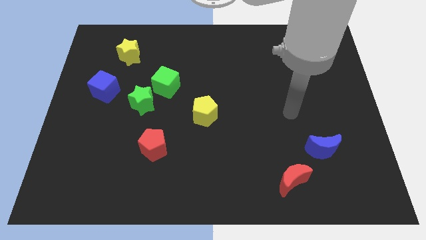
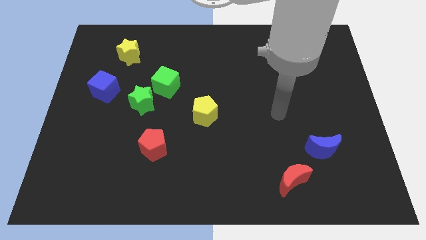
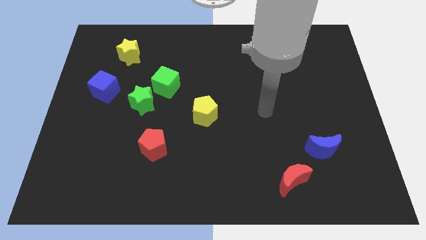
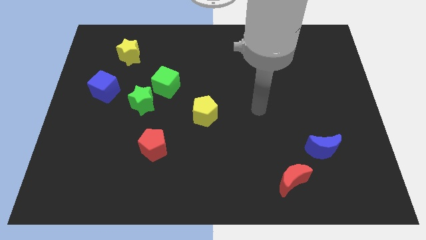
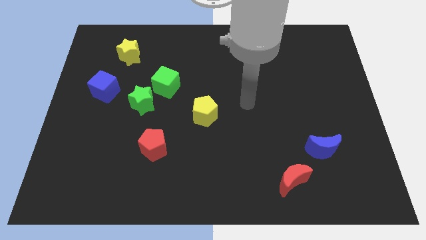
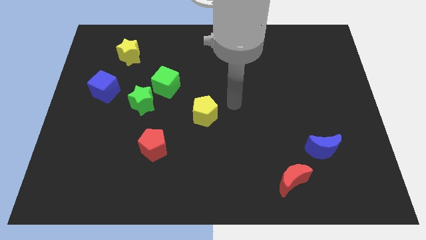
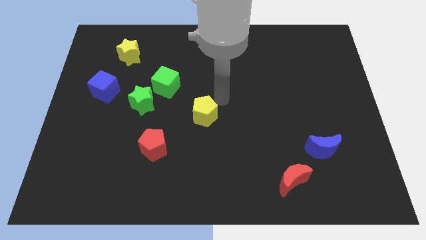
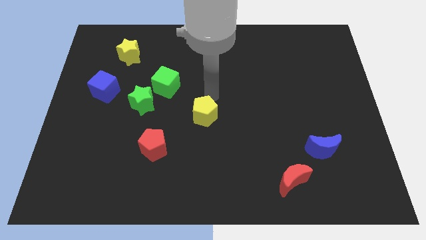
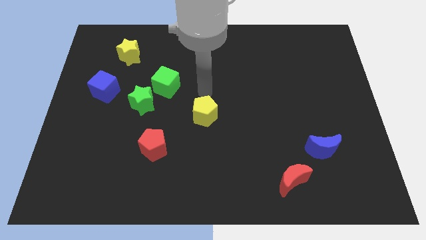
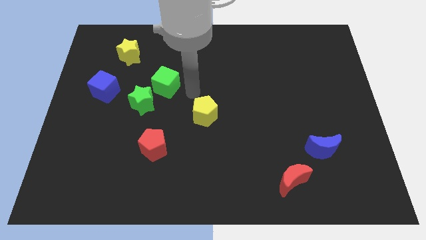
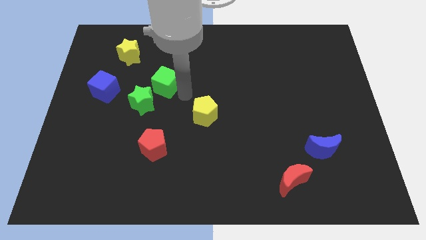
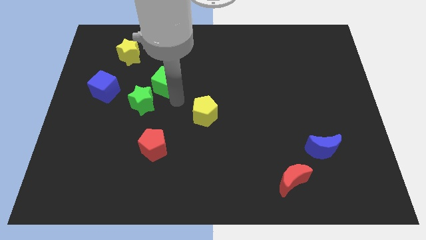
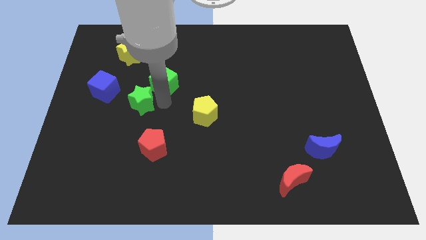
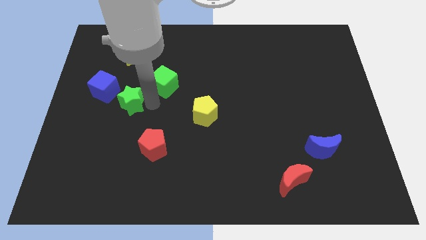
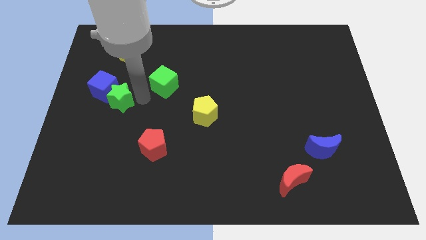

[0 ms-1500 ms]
separate the green cube from the green star

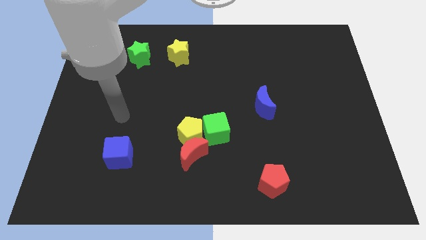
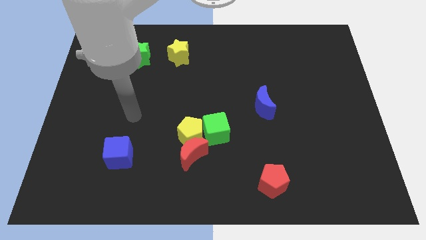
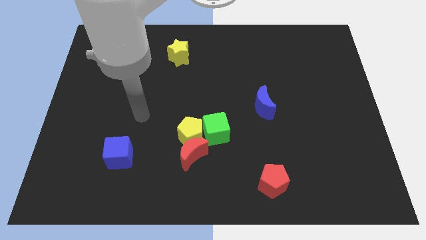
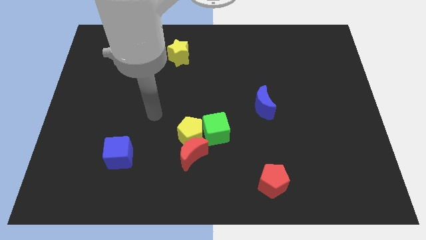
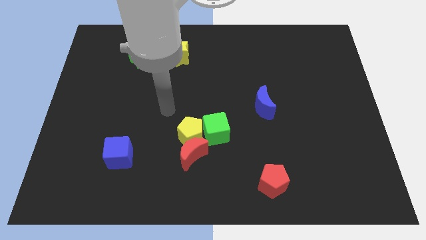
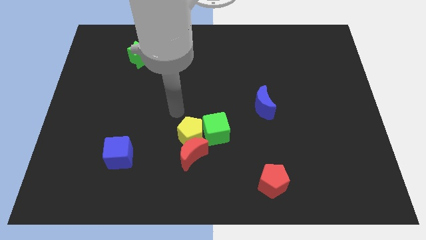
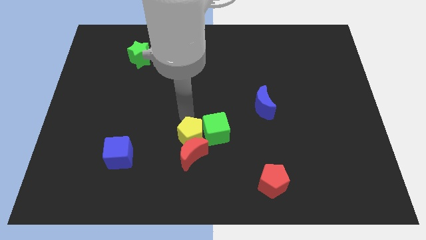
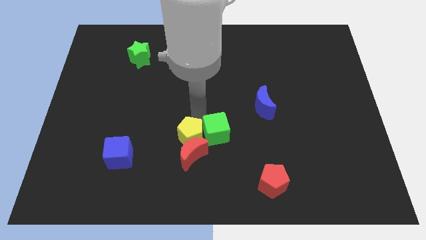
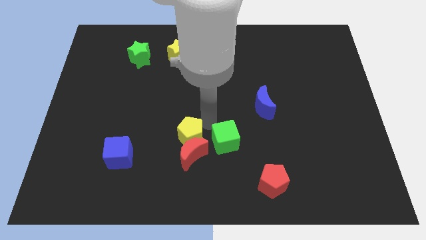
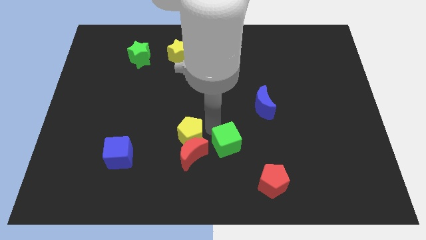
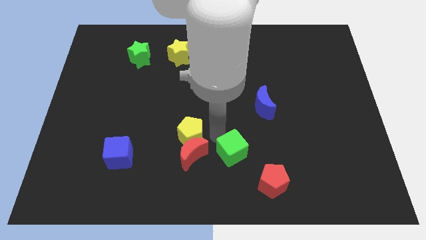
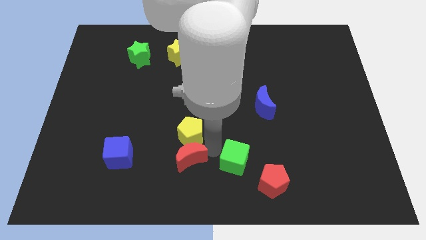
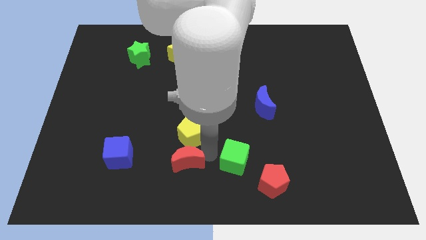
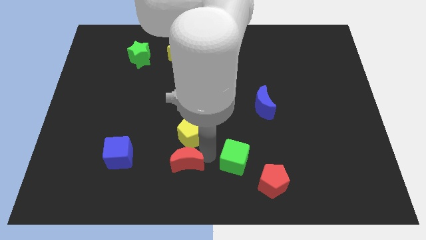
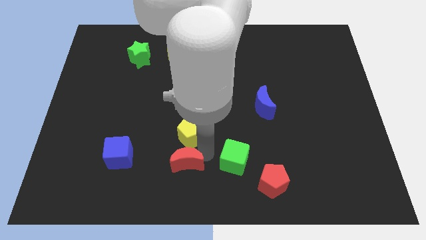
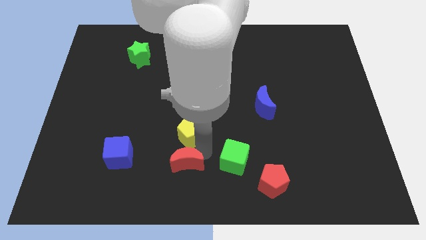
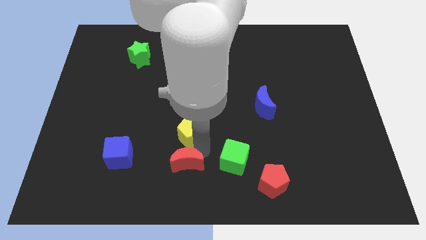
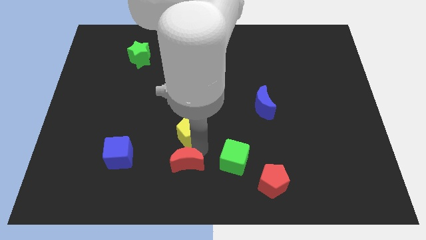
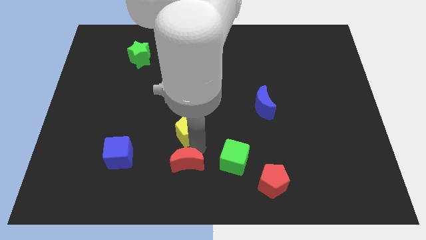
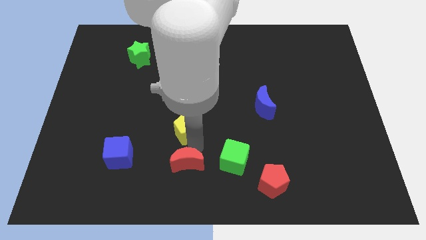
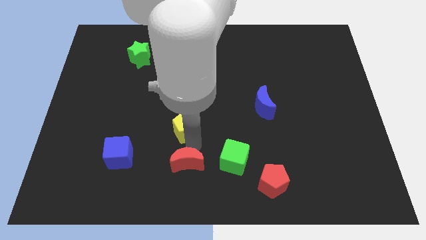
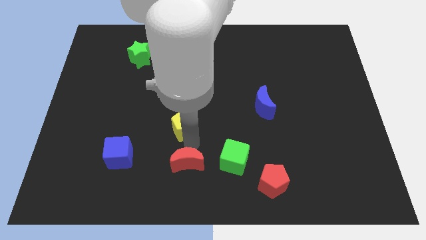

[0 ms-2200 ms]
separate the yellow pentagon from the red moon and green cube

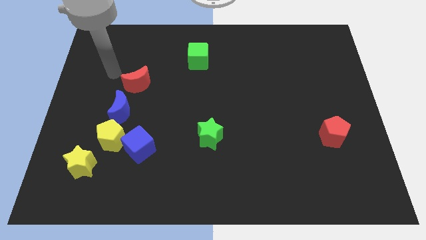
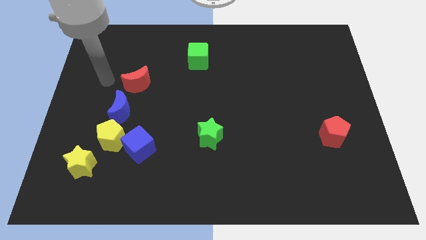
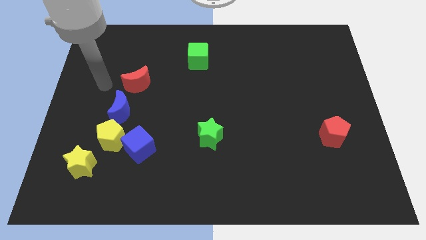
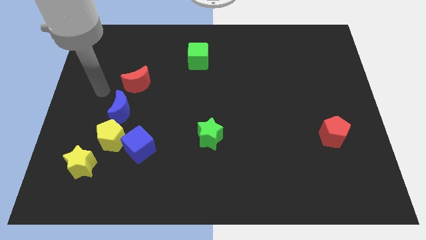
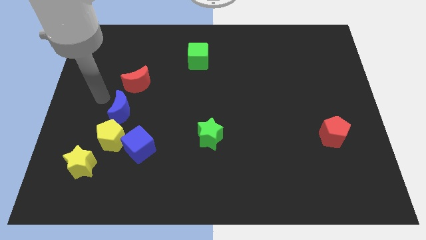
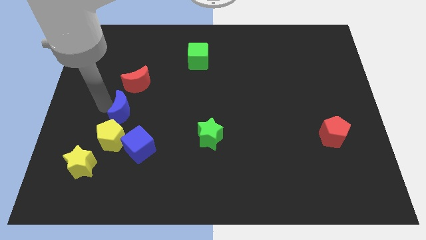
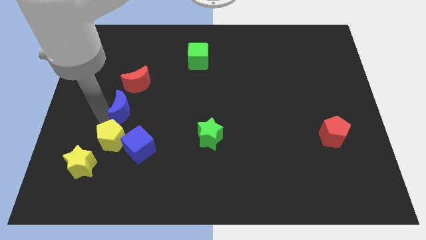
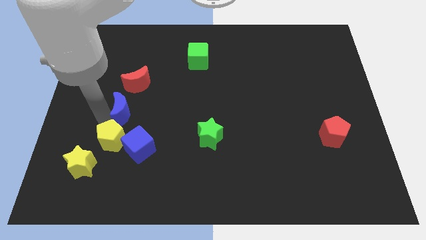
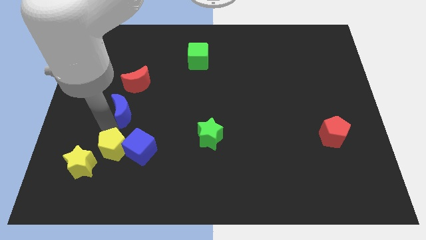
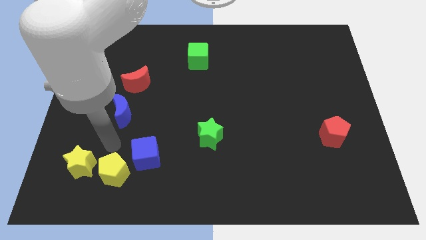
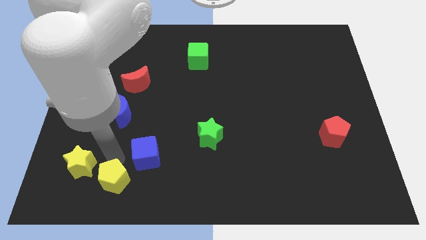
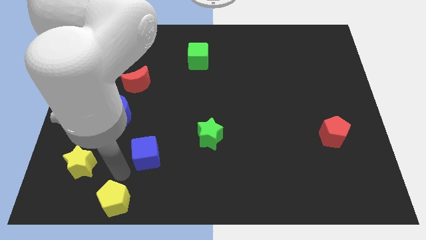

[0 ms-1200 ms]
pull the blue cube apart from the yellow pentagon

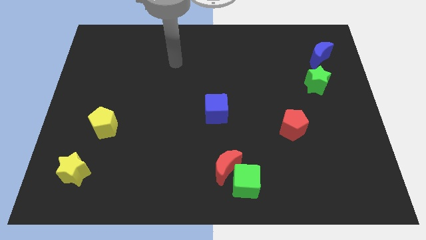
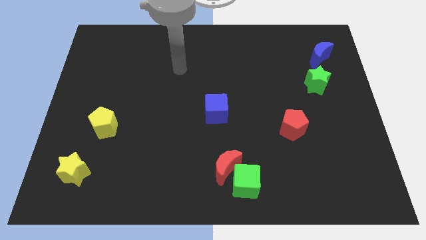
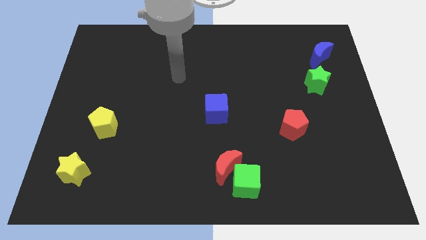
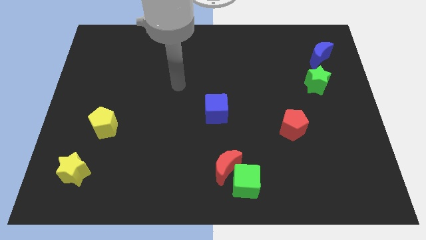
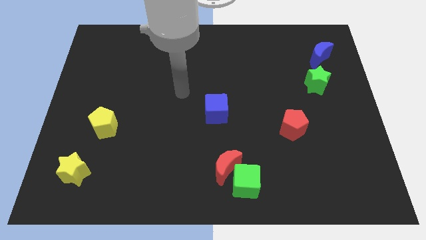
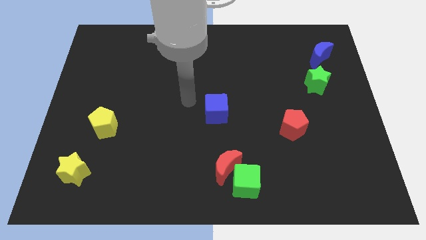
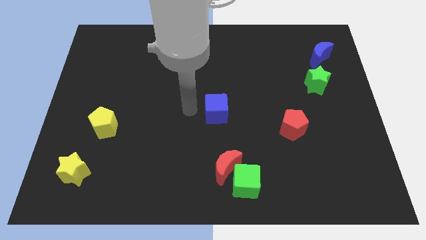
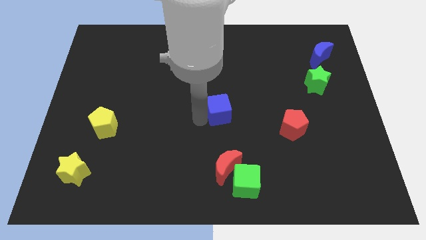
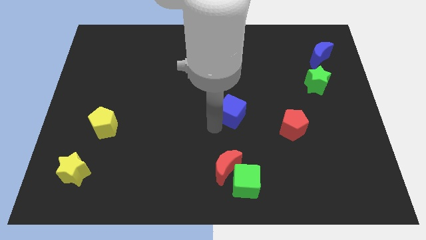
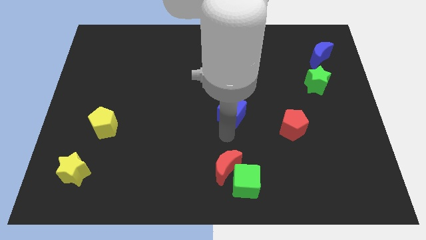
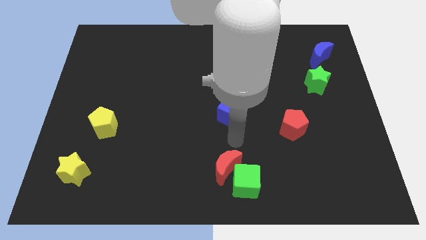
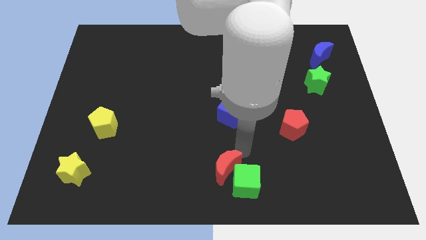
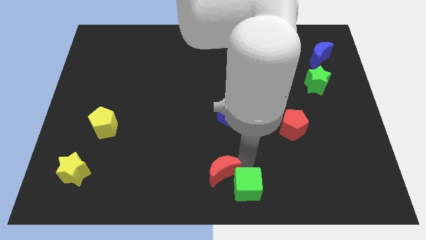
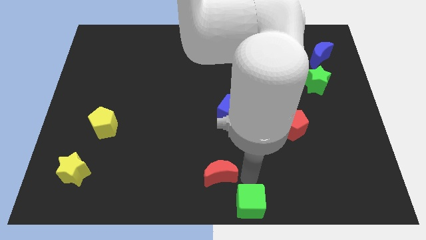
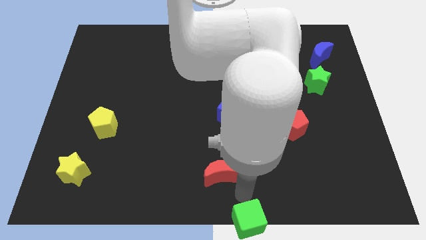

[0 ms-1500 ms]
separate the red moon from the green cube

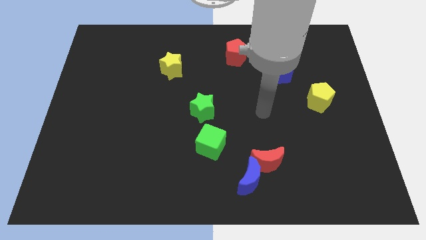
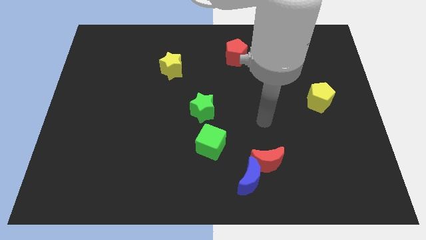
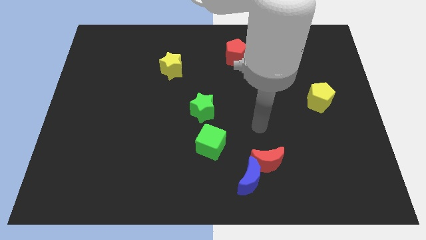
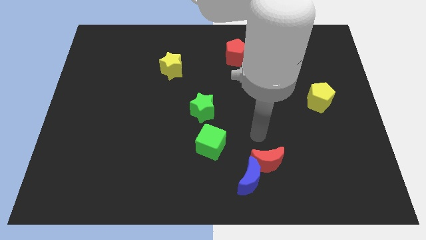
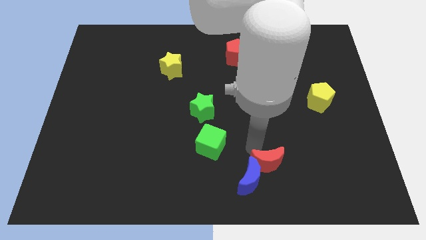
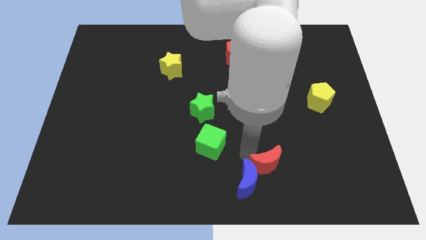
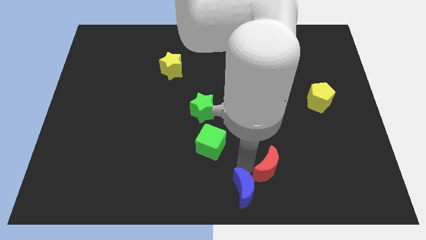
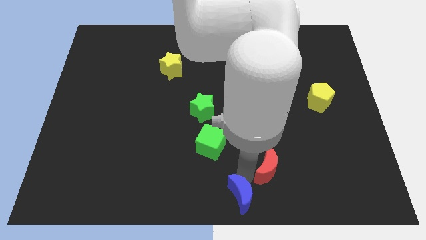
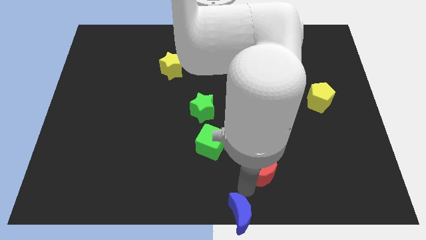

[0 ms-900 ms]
move the red moon away from the blue moon

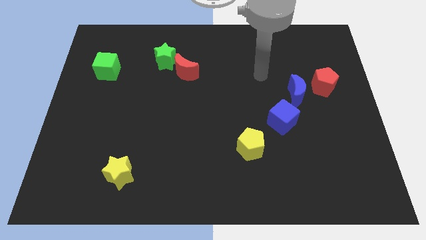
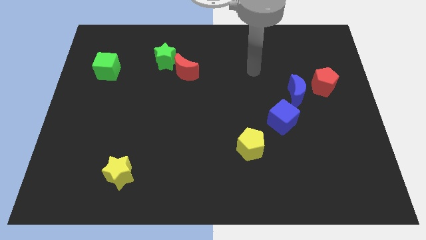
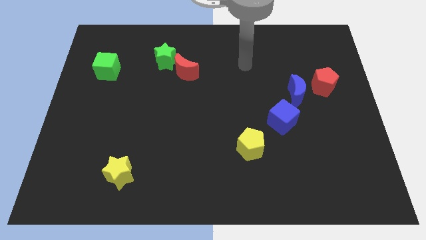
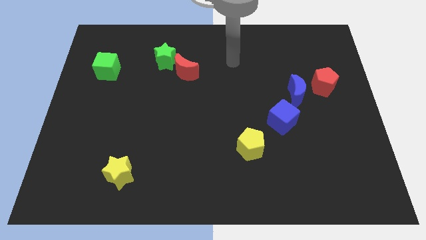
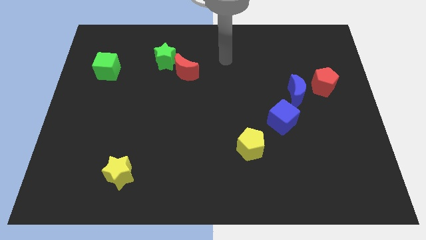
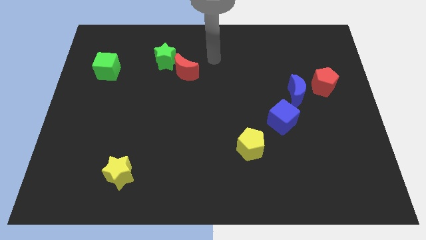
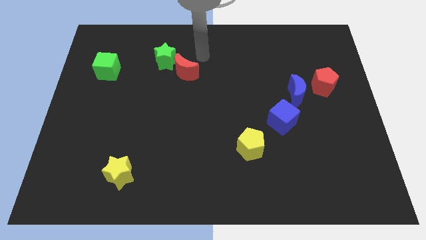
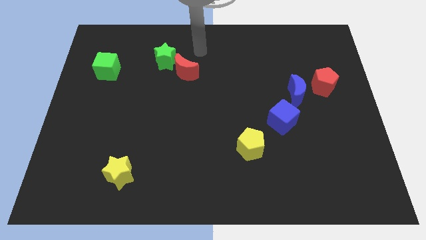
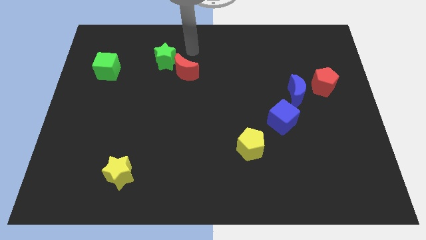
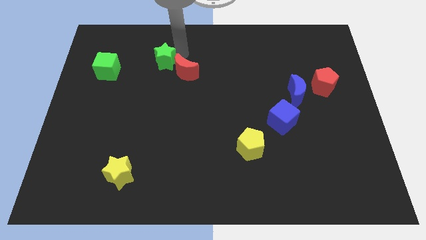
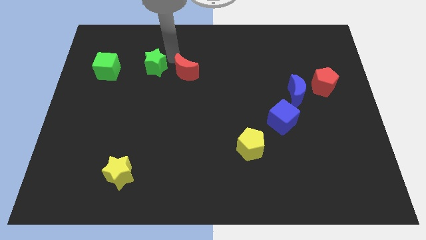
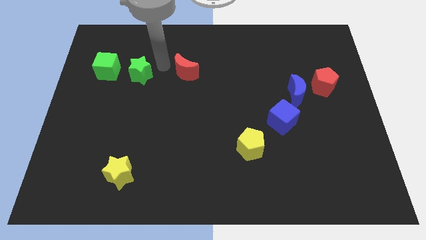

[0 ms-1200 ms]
pull the red moon apart from the green star

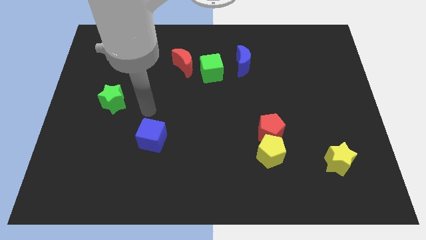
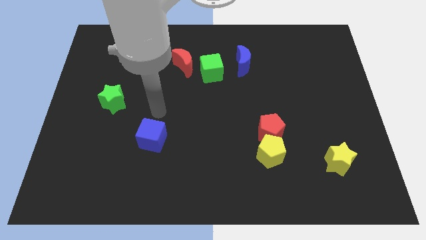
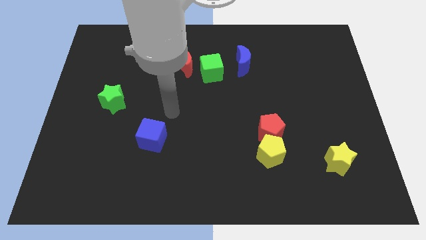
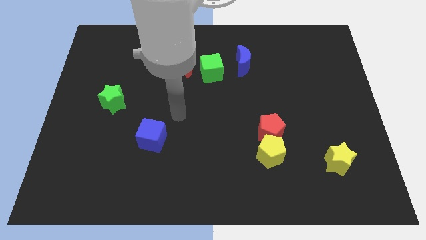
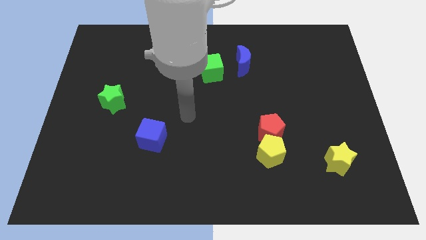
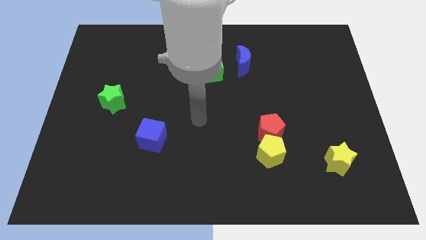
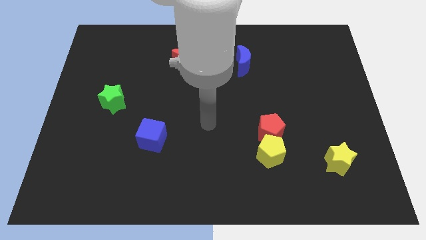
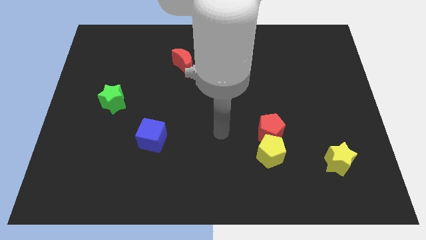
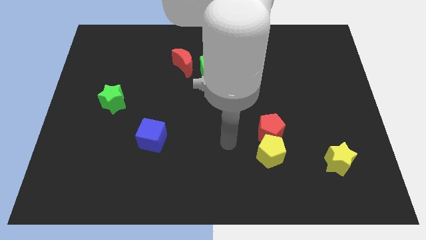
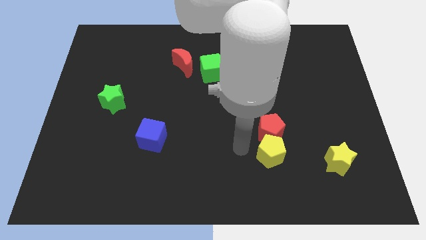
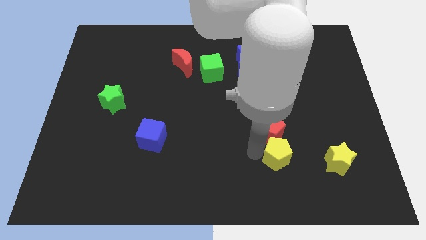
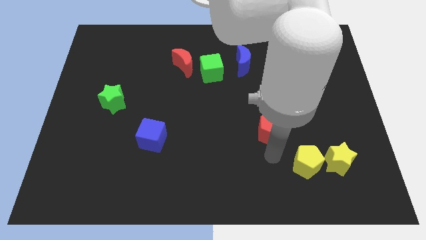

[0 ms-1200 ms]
pull the red pentagon apart from the yellow pentagon
